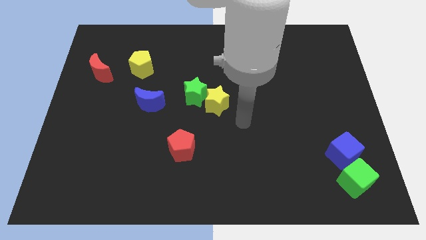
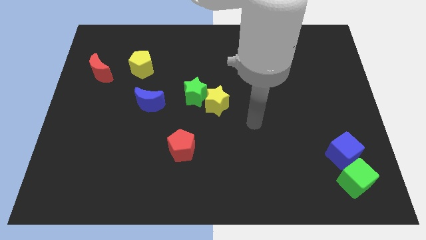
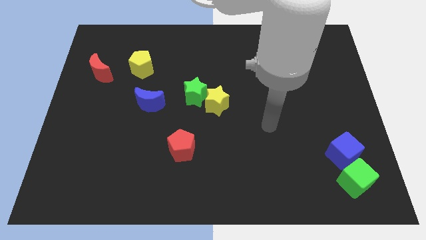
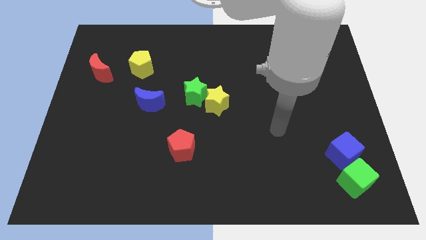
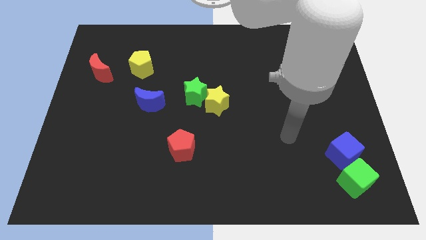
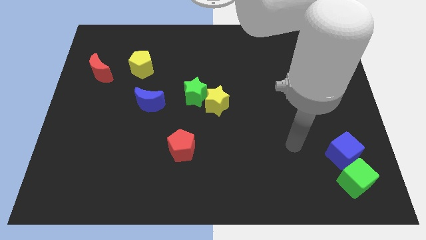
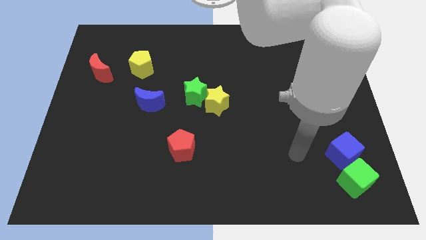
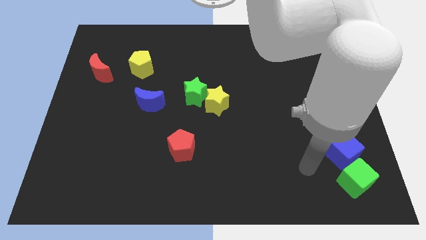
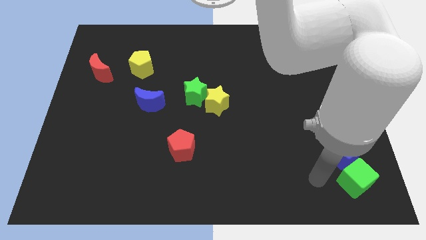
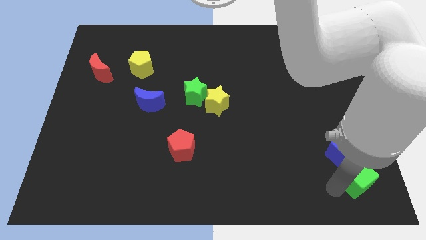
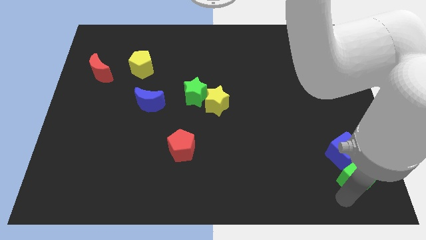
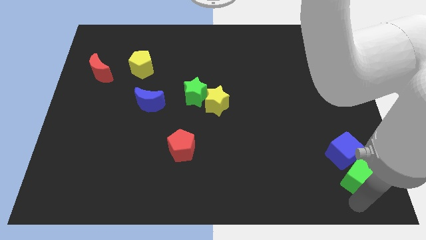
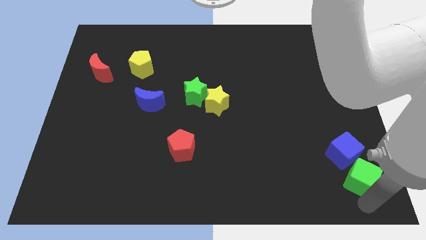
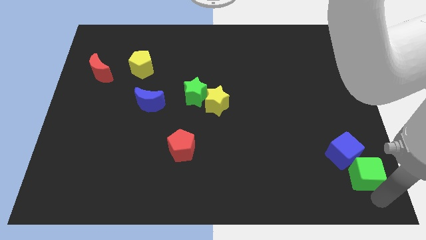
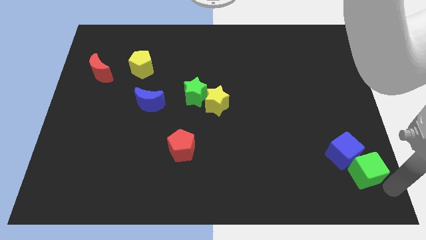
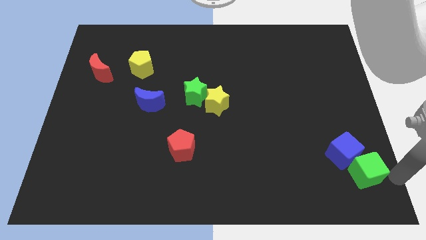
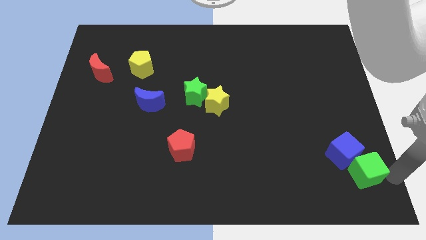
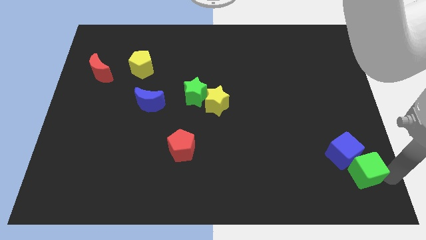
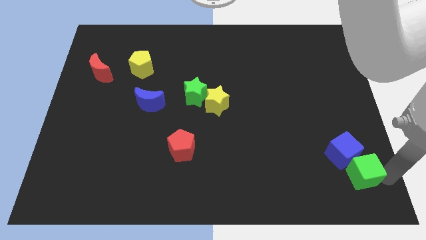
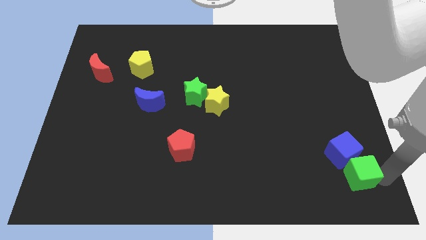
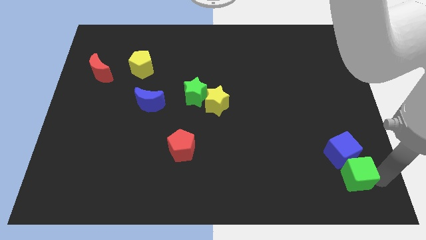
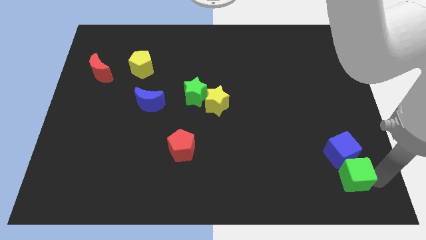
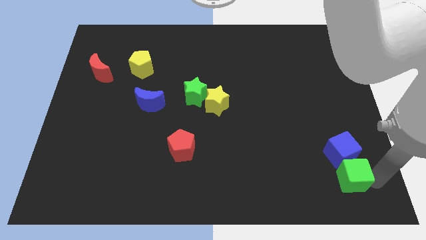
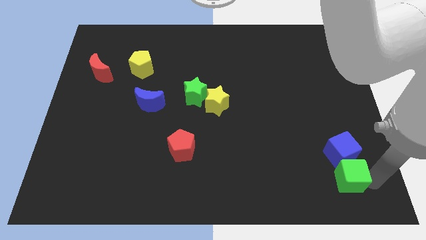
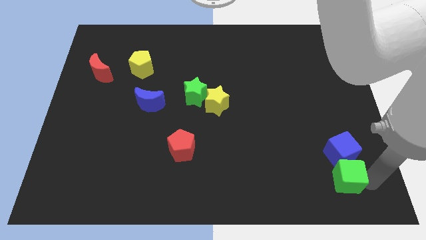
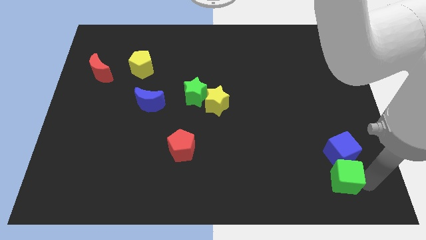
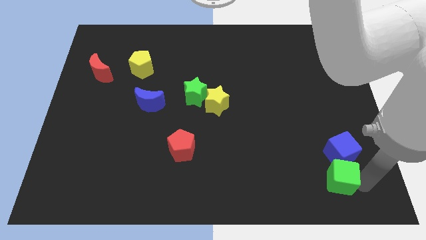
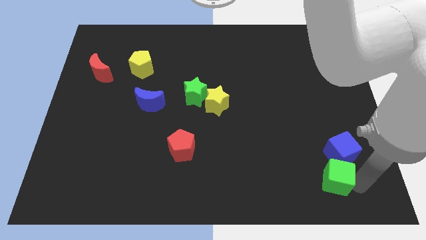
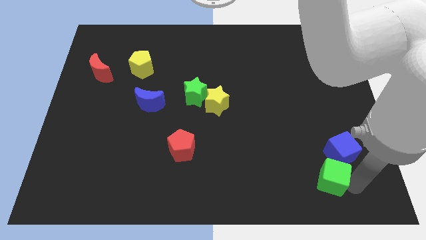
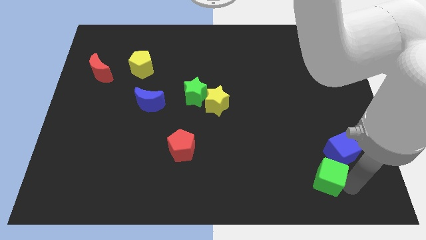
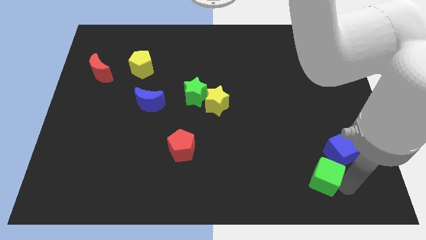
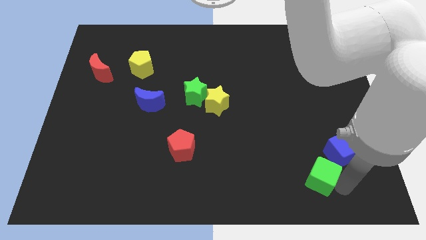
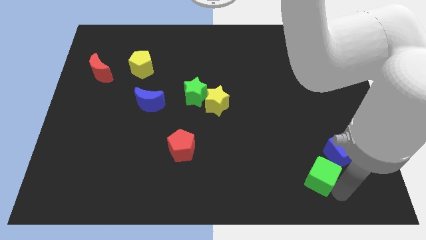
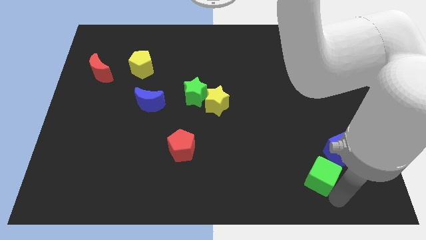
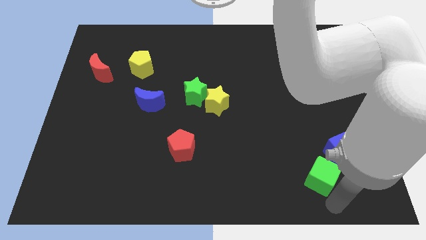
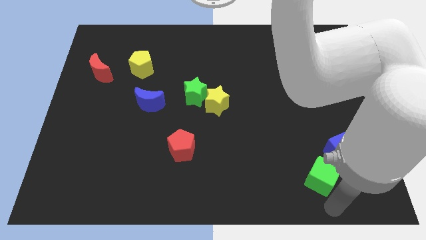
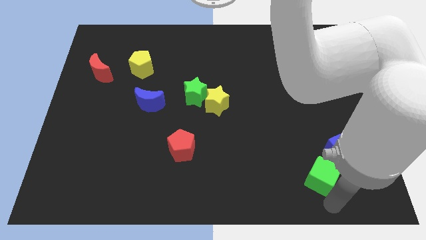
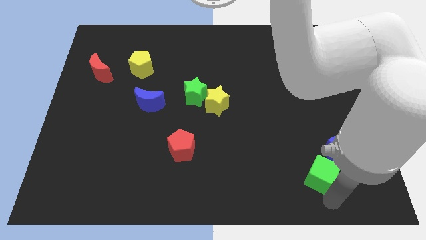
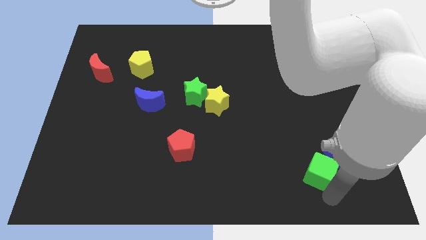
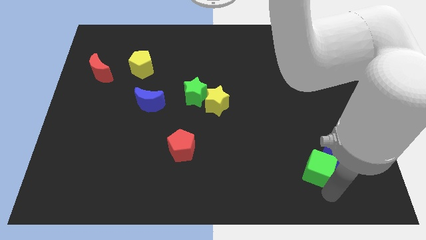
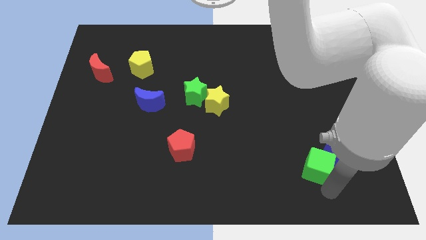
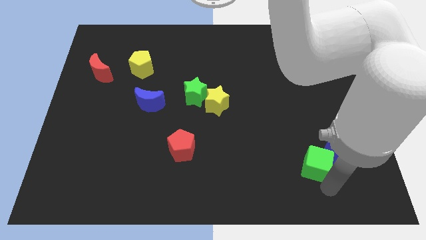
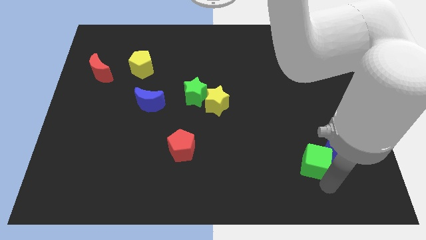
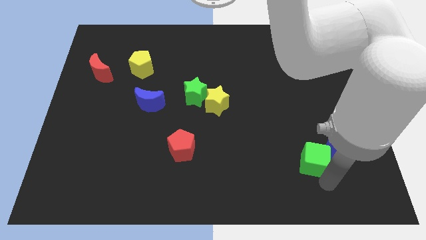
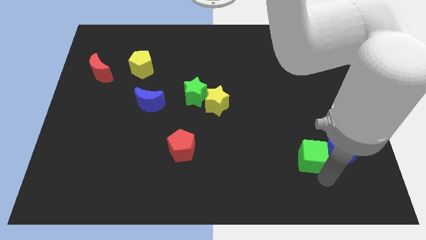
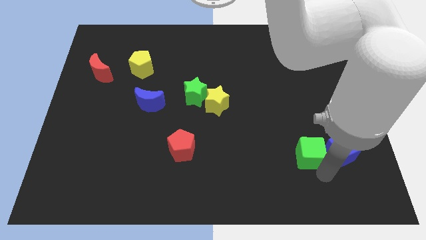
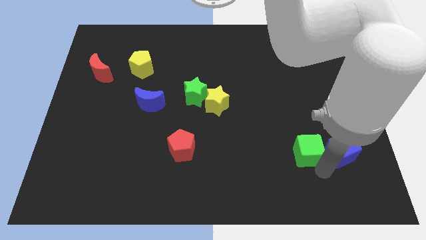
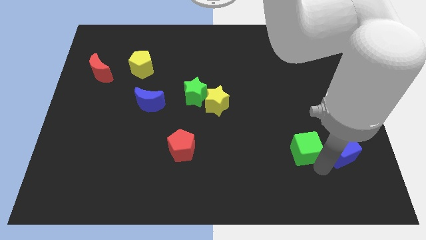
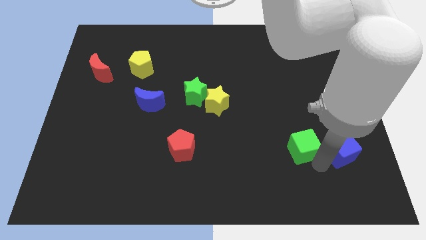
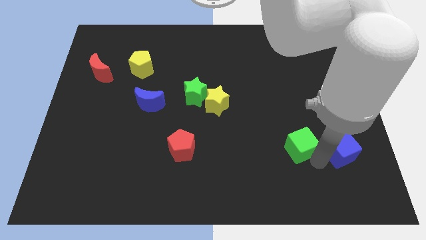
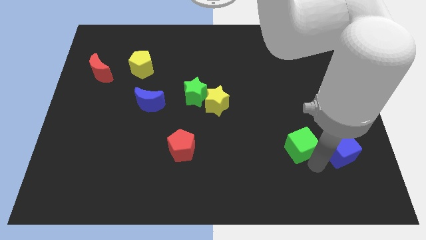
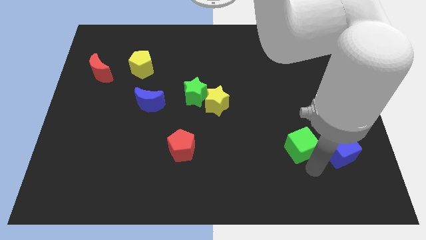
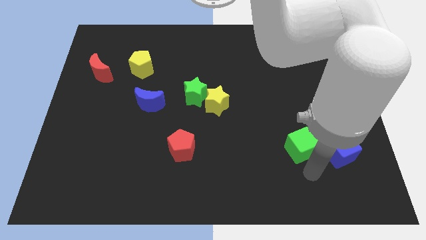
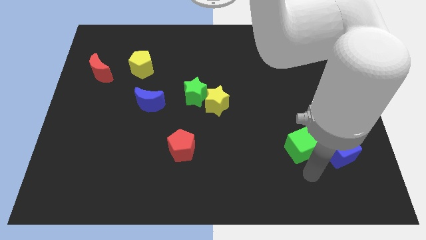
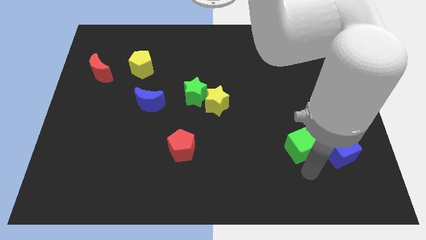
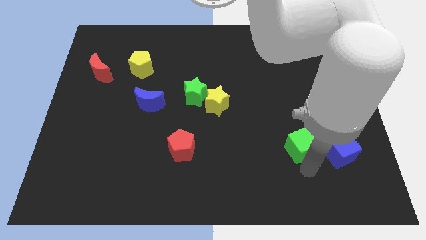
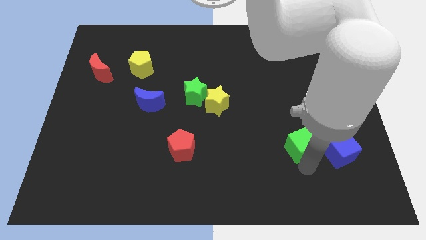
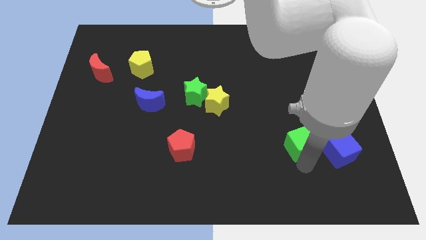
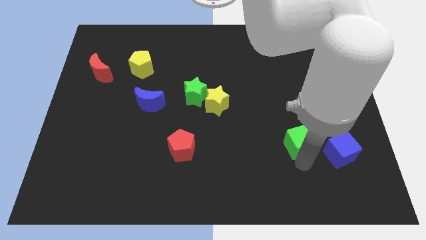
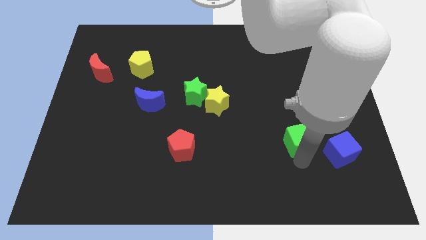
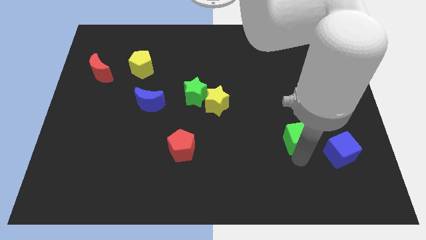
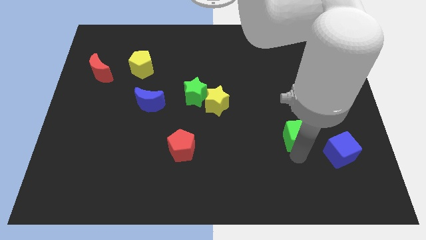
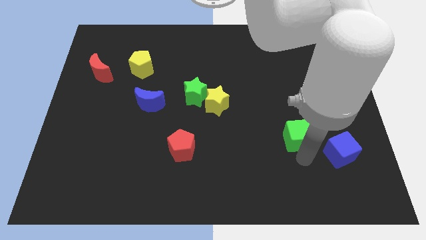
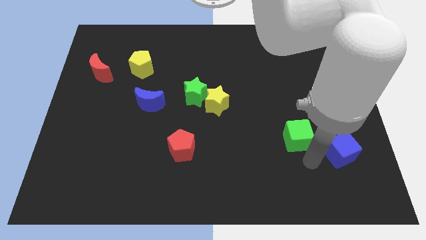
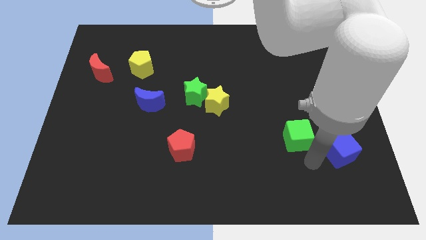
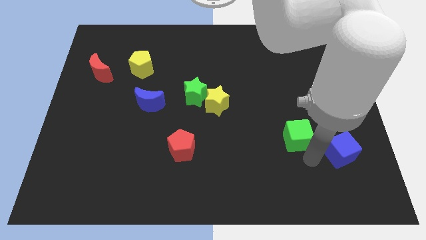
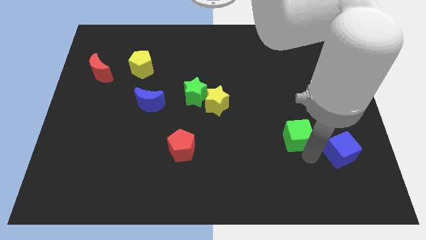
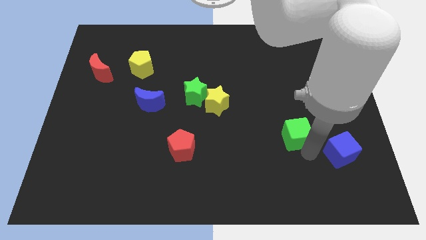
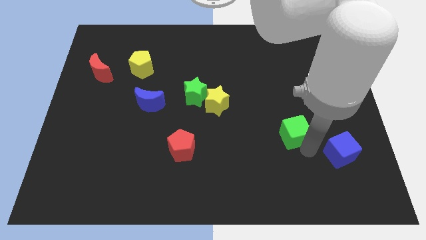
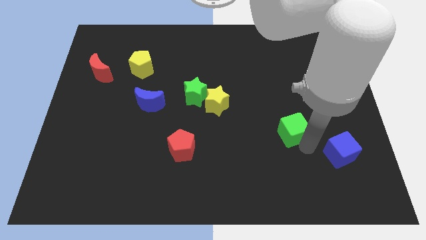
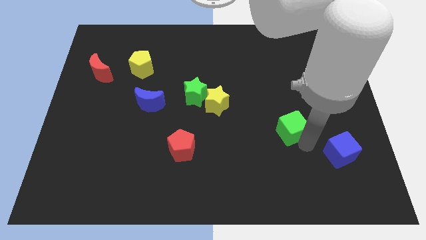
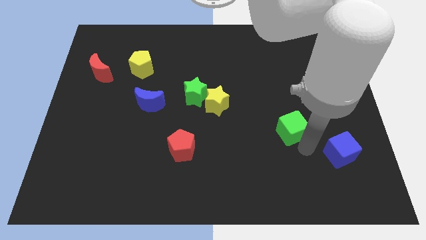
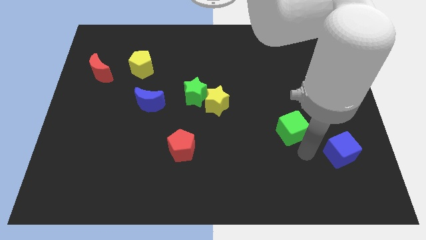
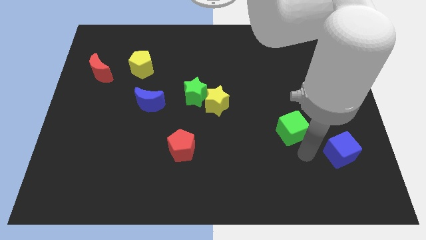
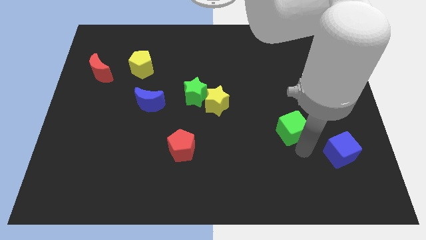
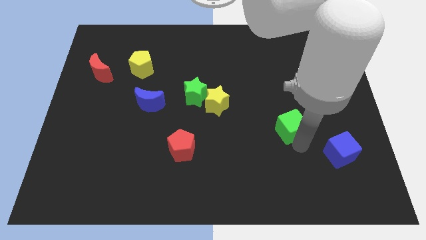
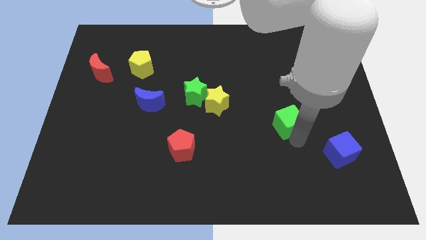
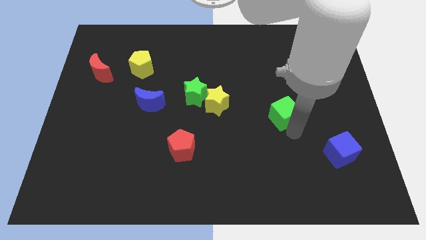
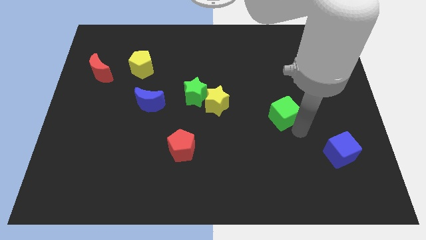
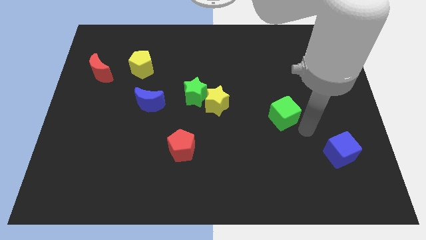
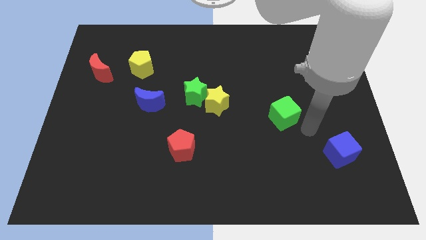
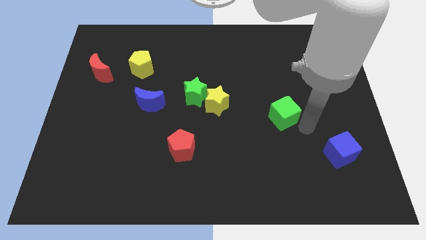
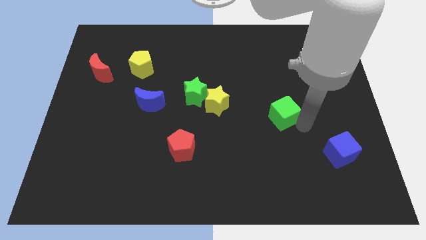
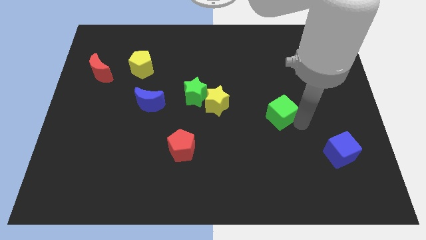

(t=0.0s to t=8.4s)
slide the green cube just right of the yellow star
